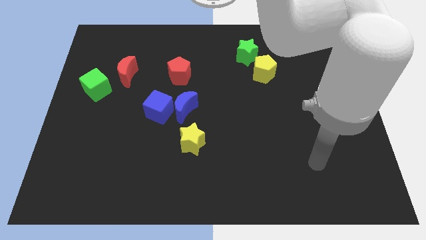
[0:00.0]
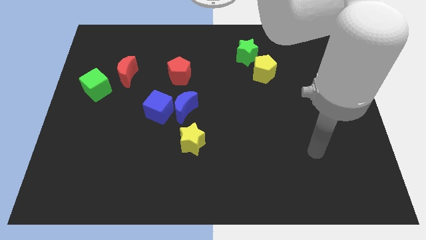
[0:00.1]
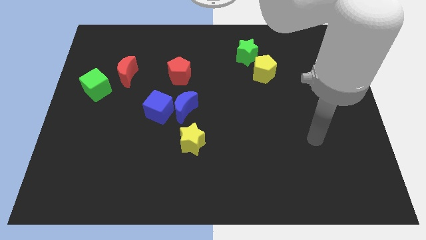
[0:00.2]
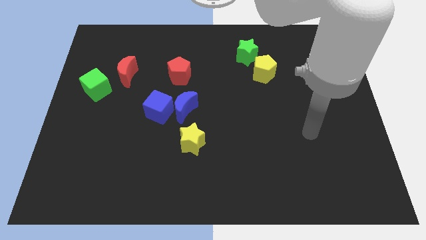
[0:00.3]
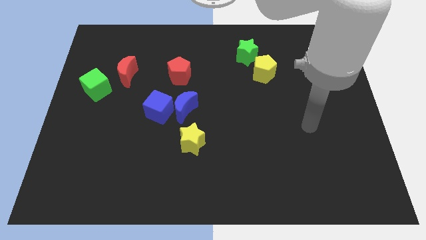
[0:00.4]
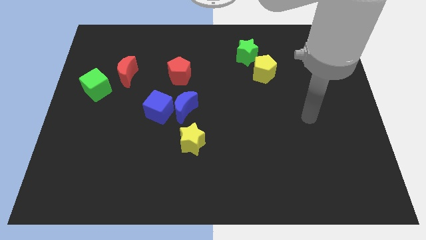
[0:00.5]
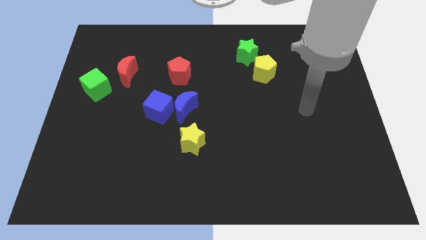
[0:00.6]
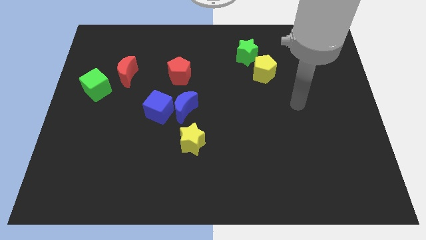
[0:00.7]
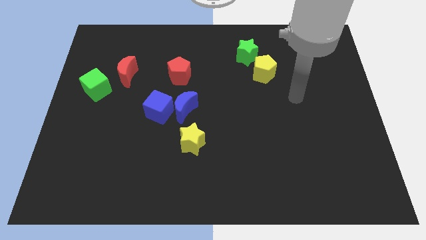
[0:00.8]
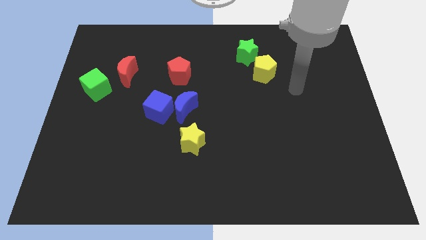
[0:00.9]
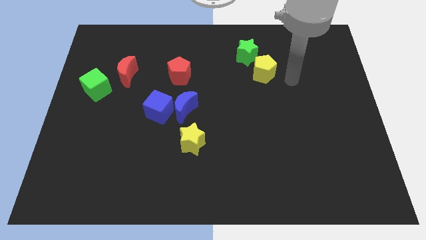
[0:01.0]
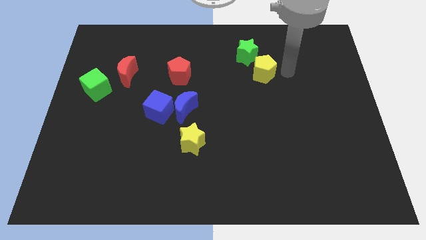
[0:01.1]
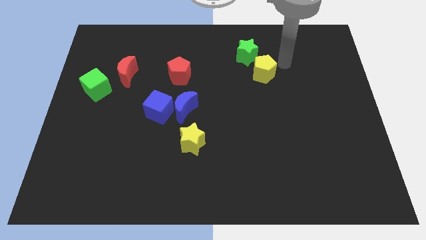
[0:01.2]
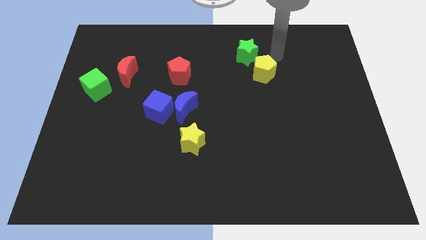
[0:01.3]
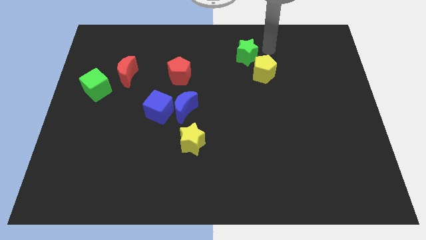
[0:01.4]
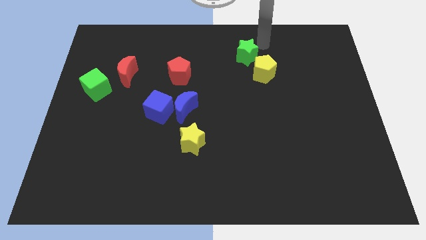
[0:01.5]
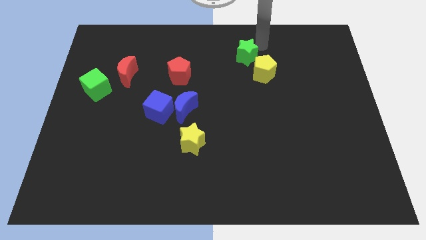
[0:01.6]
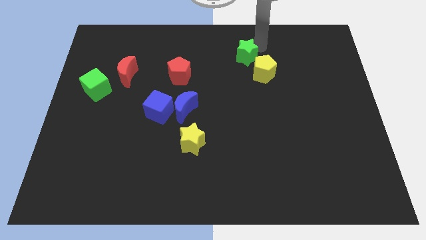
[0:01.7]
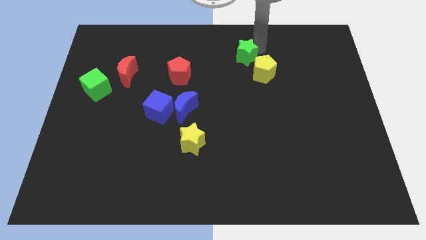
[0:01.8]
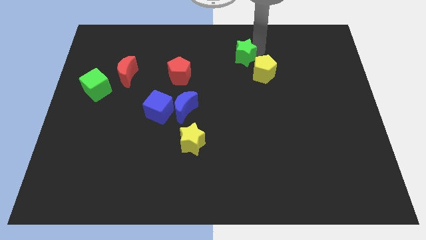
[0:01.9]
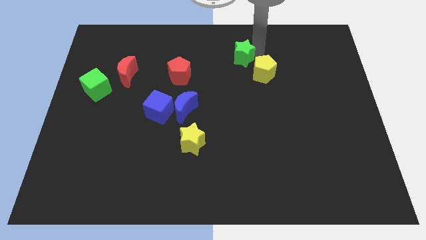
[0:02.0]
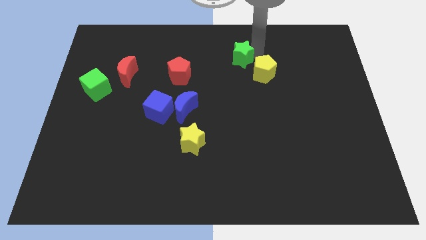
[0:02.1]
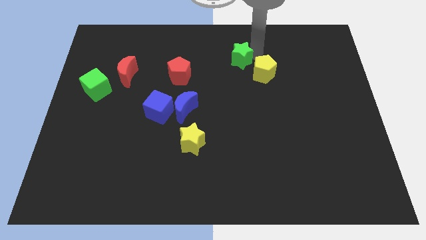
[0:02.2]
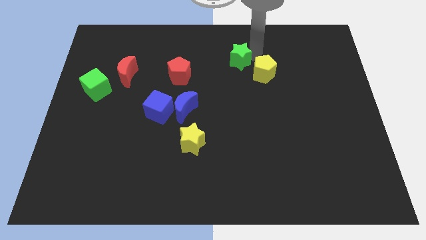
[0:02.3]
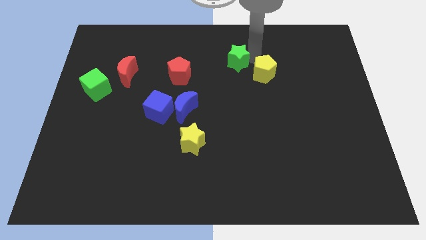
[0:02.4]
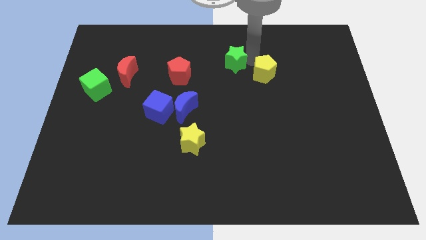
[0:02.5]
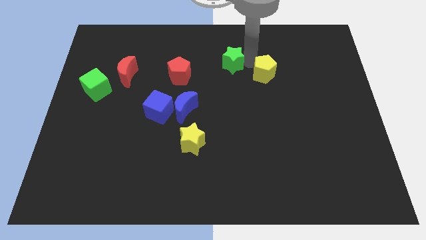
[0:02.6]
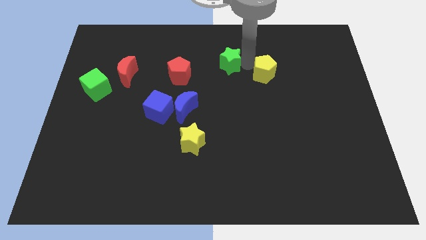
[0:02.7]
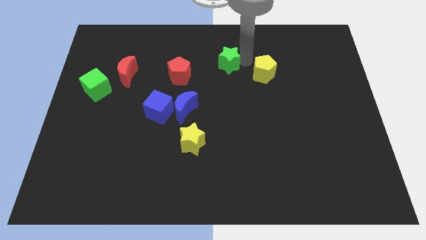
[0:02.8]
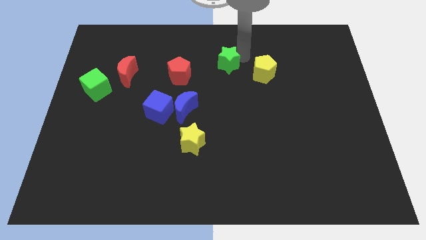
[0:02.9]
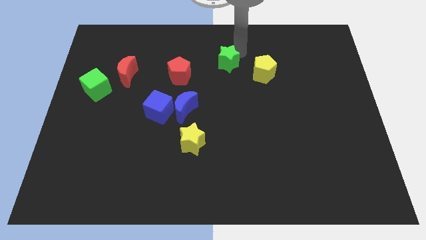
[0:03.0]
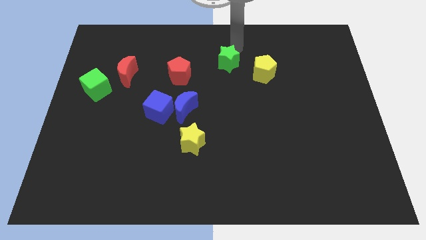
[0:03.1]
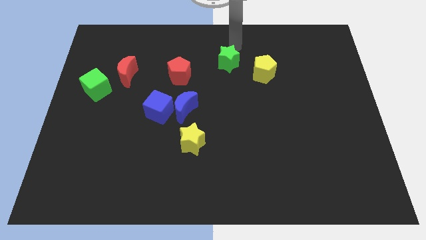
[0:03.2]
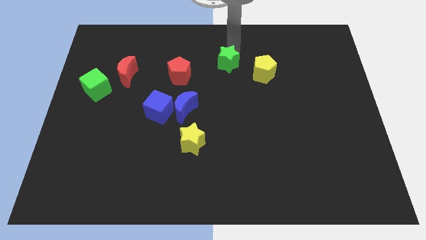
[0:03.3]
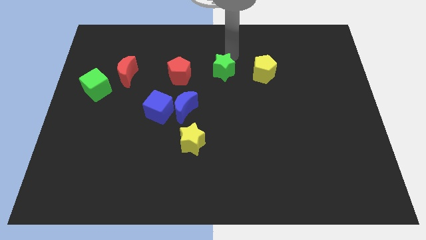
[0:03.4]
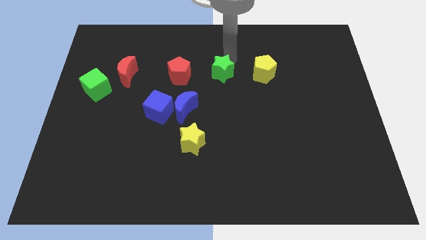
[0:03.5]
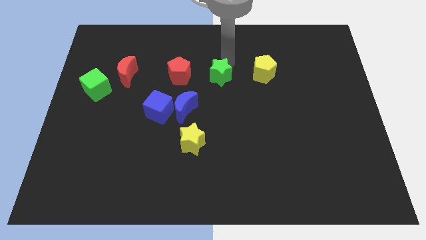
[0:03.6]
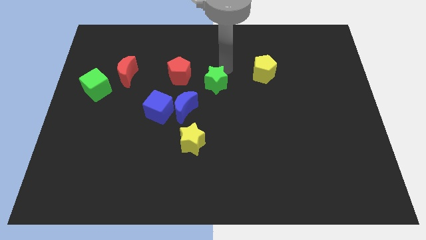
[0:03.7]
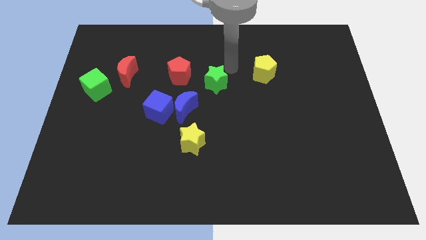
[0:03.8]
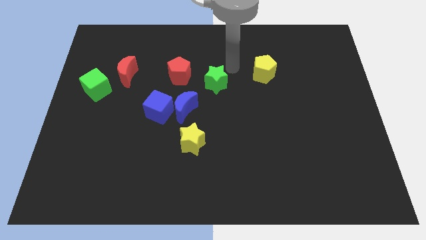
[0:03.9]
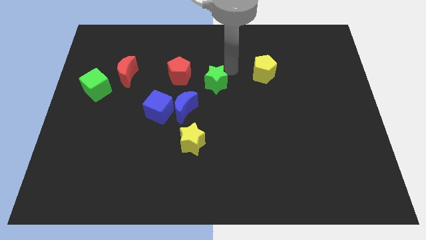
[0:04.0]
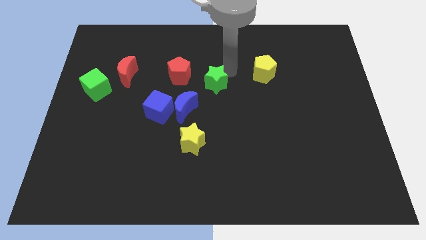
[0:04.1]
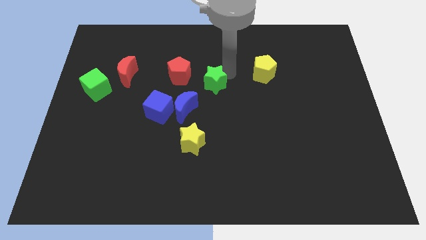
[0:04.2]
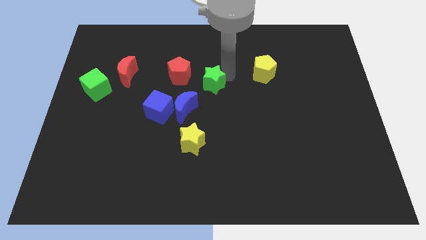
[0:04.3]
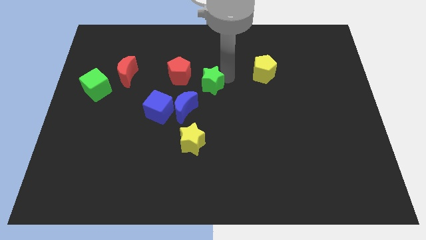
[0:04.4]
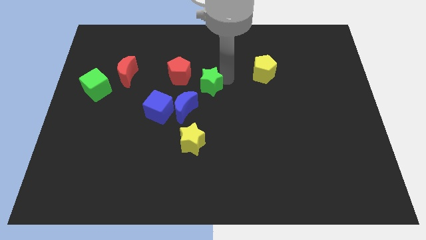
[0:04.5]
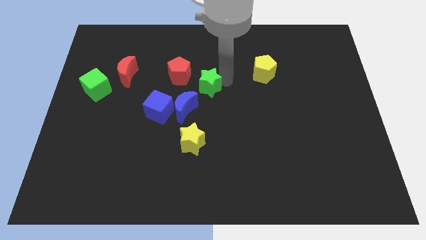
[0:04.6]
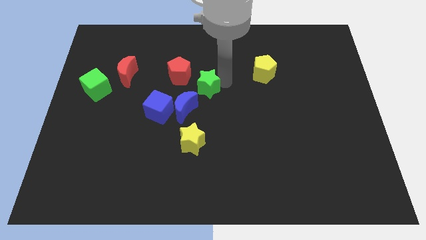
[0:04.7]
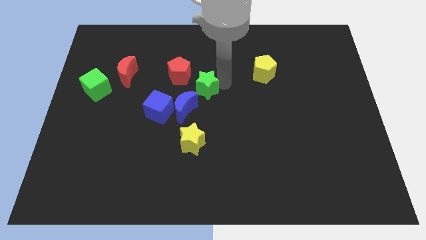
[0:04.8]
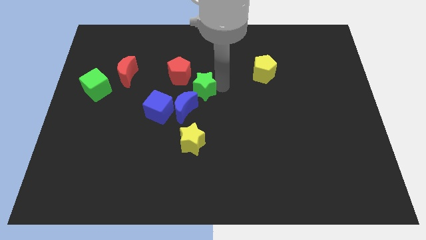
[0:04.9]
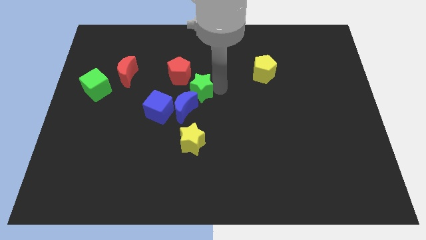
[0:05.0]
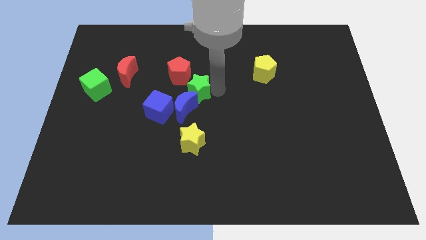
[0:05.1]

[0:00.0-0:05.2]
put the green star to the blue moon

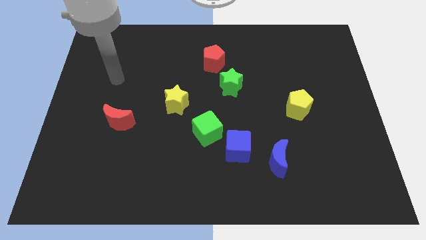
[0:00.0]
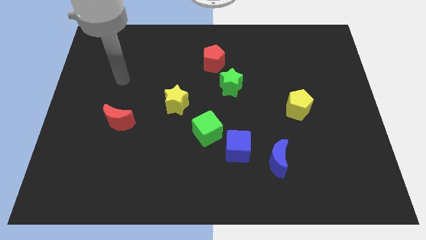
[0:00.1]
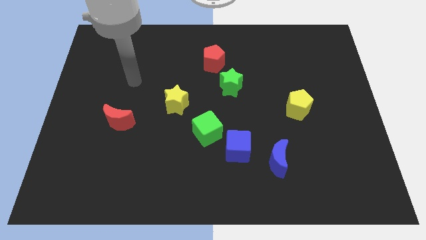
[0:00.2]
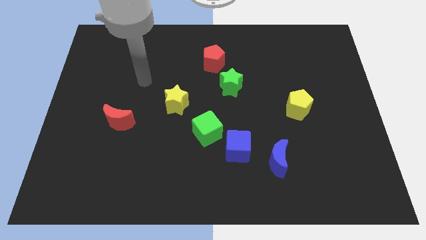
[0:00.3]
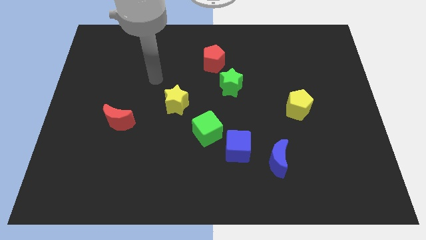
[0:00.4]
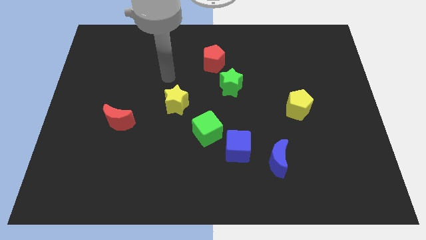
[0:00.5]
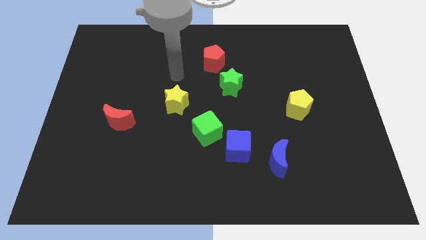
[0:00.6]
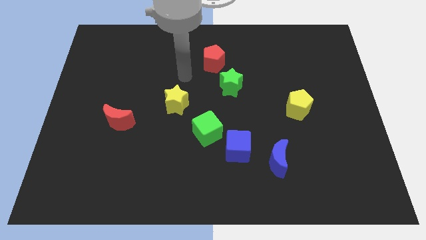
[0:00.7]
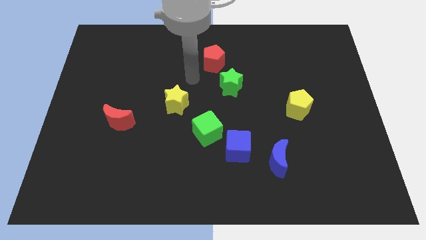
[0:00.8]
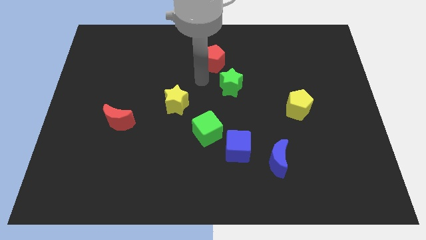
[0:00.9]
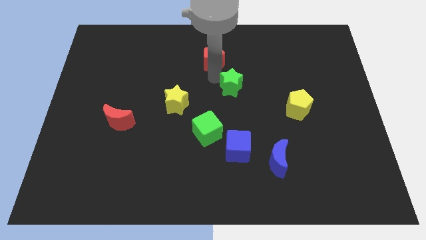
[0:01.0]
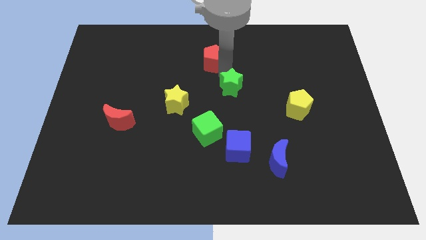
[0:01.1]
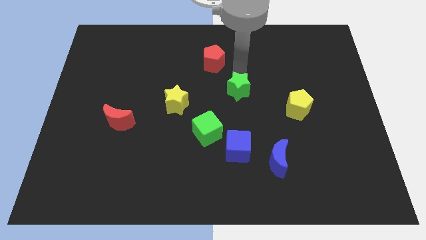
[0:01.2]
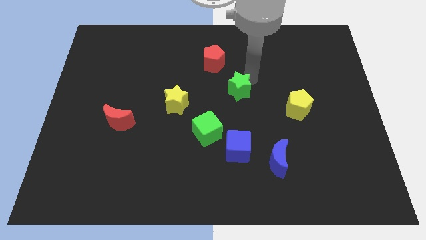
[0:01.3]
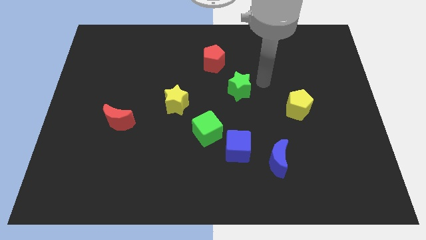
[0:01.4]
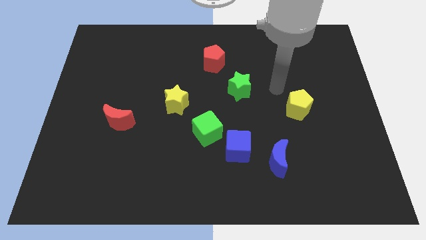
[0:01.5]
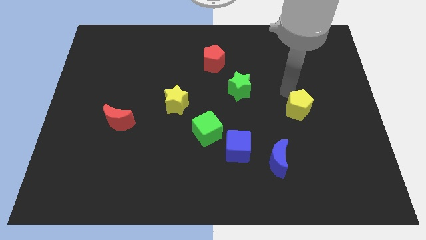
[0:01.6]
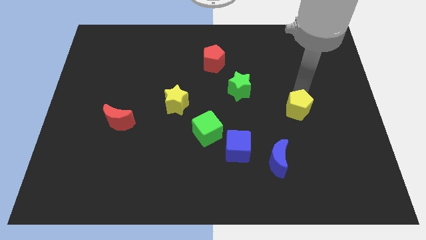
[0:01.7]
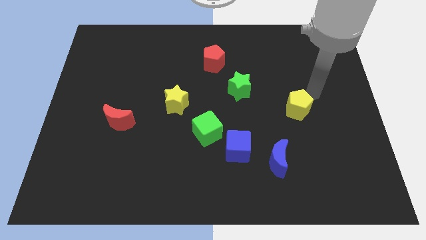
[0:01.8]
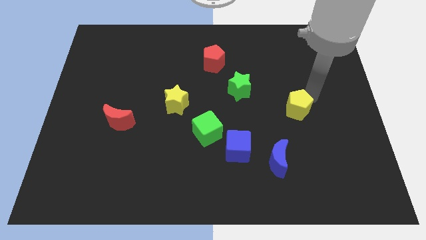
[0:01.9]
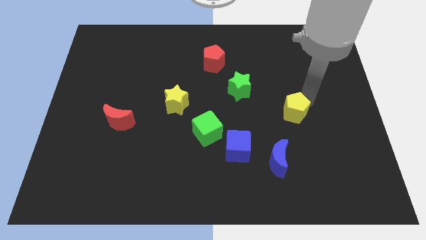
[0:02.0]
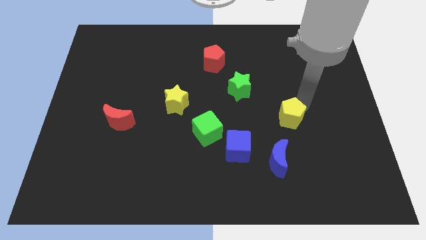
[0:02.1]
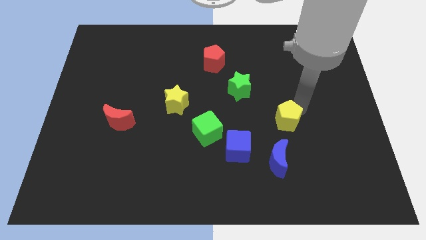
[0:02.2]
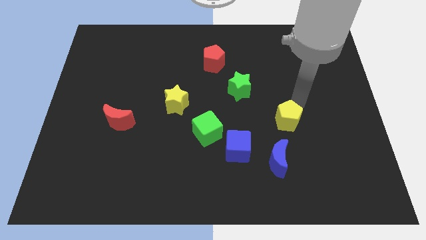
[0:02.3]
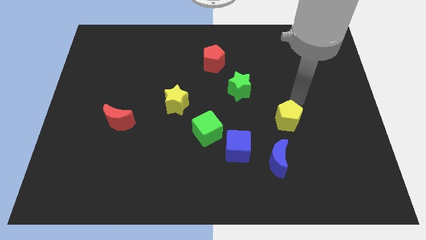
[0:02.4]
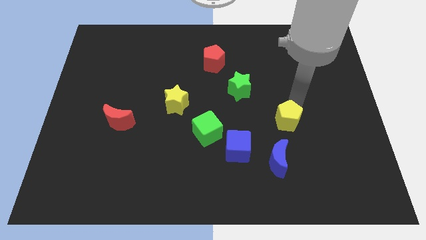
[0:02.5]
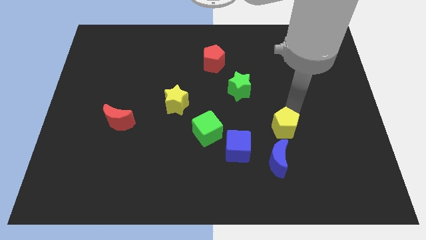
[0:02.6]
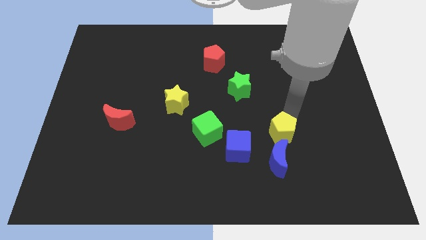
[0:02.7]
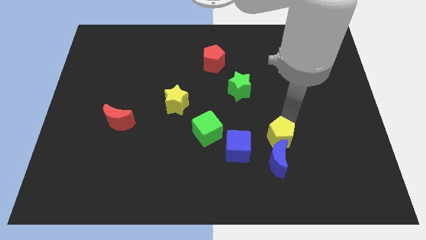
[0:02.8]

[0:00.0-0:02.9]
push the yellow pentagon close to the blue moon
